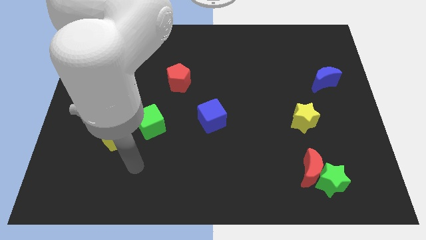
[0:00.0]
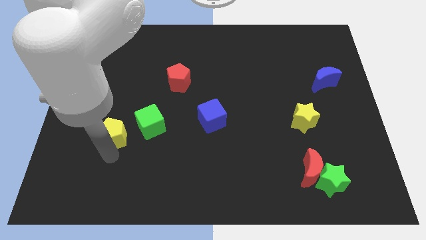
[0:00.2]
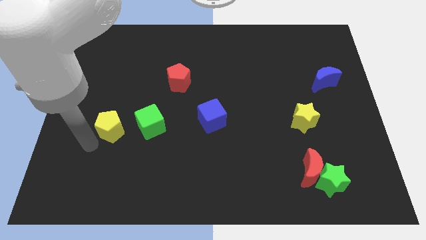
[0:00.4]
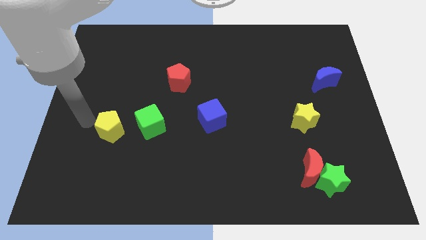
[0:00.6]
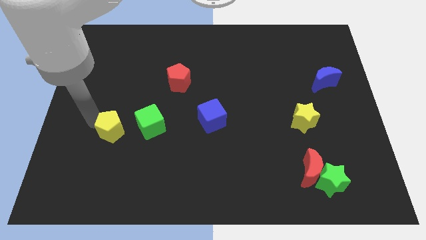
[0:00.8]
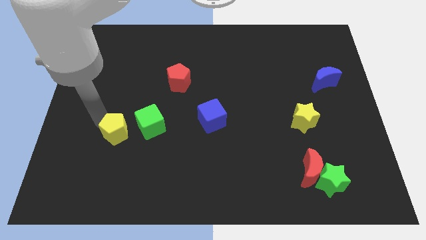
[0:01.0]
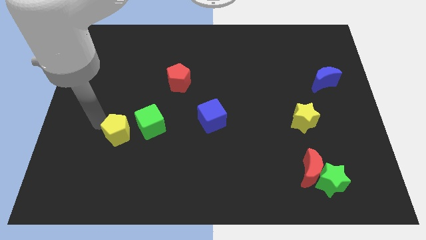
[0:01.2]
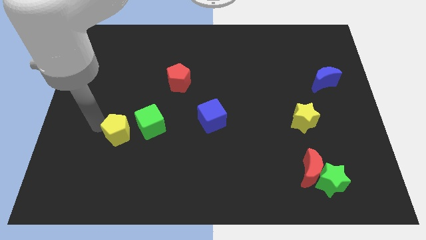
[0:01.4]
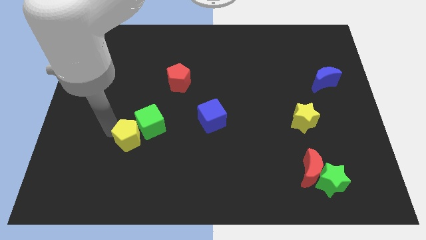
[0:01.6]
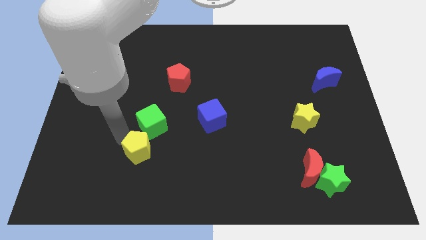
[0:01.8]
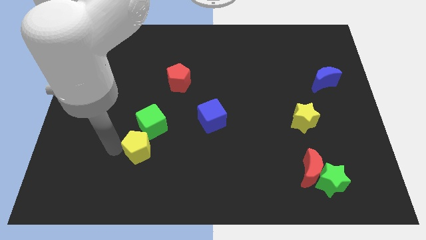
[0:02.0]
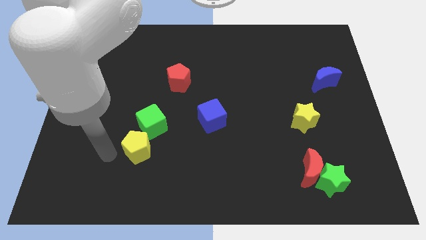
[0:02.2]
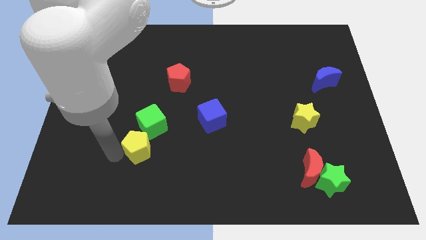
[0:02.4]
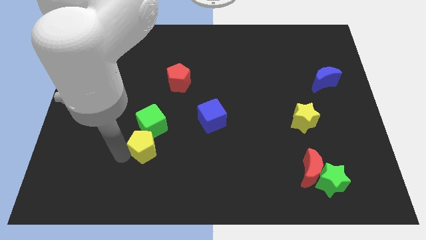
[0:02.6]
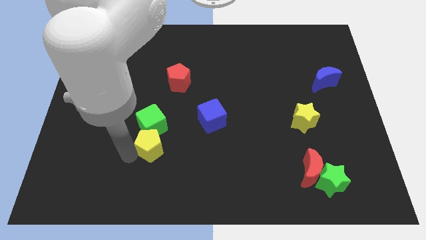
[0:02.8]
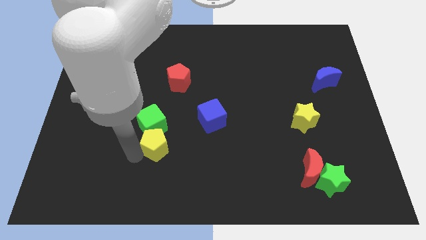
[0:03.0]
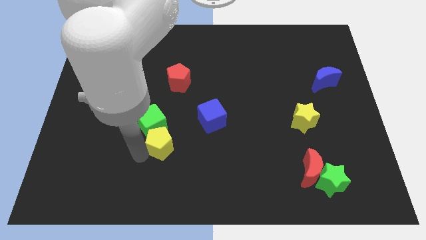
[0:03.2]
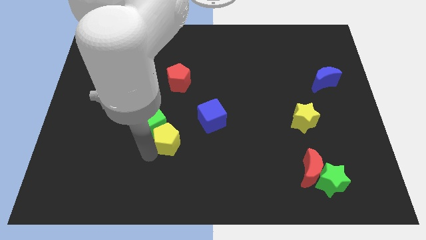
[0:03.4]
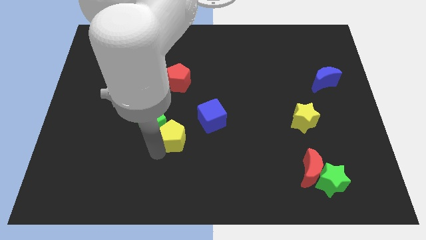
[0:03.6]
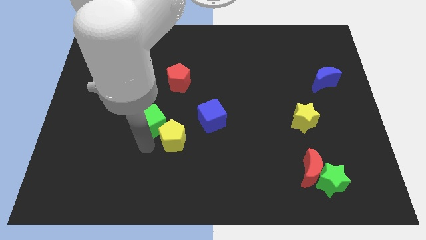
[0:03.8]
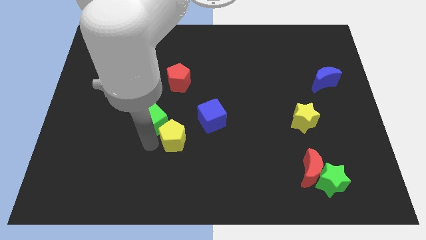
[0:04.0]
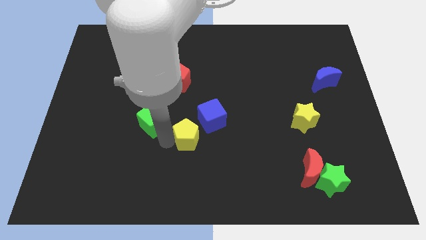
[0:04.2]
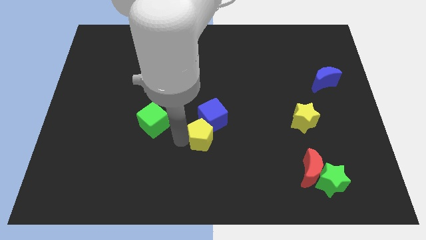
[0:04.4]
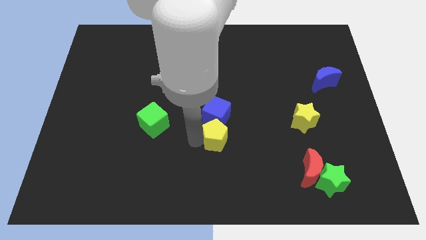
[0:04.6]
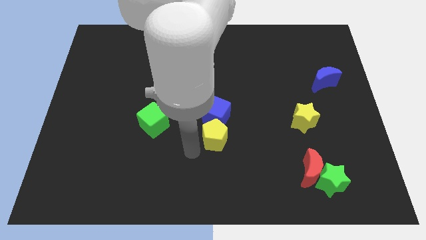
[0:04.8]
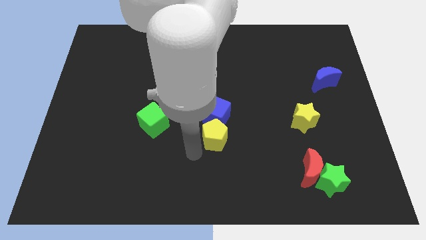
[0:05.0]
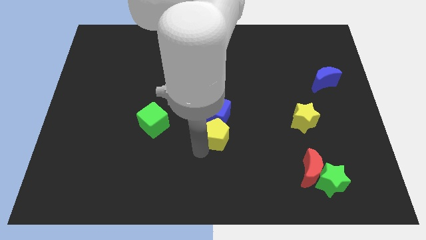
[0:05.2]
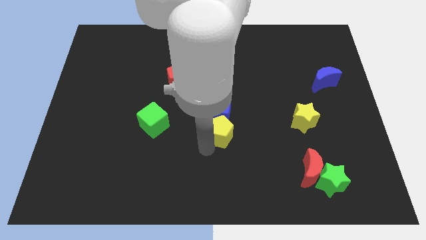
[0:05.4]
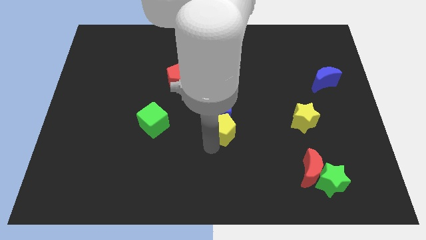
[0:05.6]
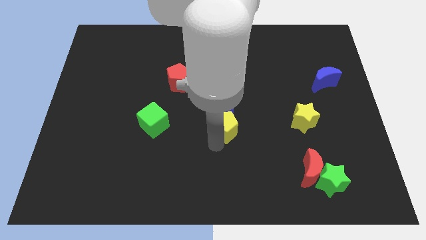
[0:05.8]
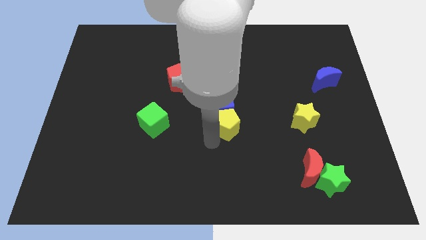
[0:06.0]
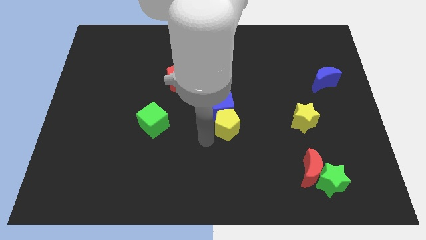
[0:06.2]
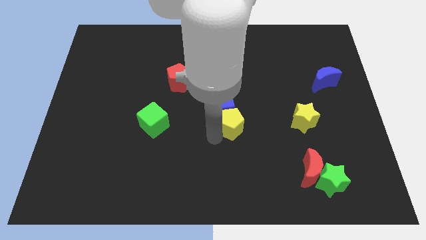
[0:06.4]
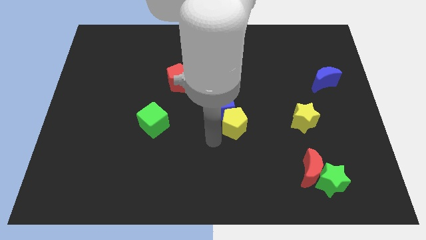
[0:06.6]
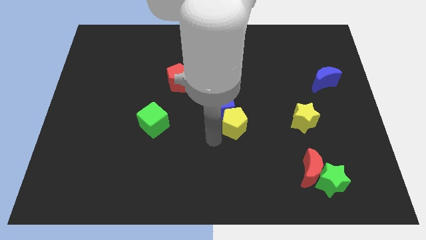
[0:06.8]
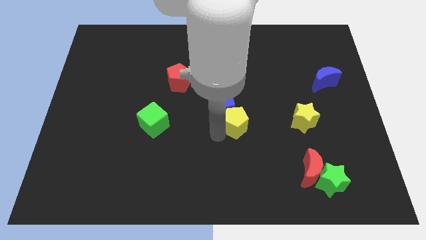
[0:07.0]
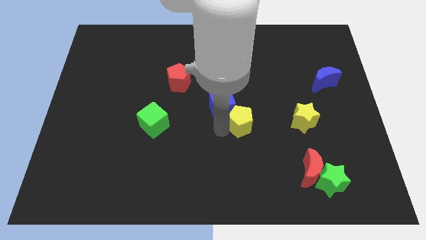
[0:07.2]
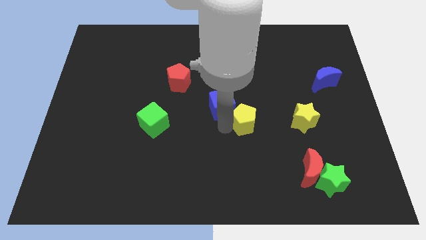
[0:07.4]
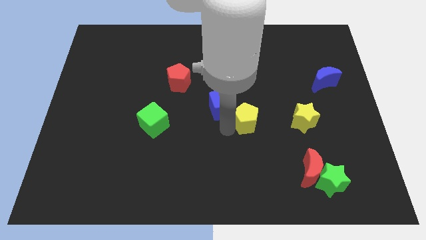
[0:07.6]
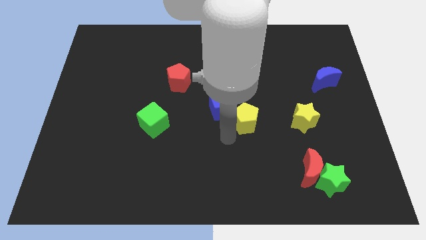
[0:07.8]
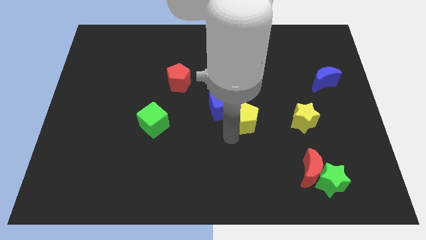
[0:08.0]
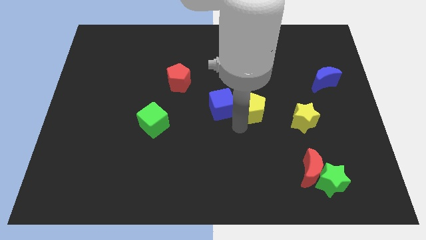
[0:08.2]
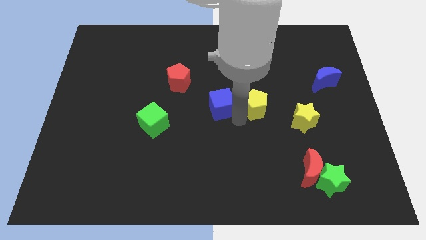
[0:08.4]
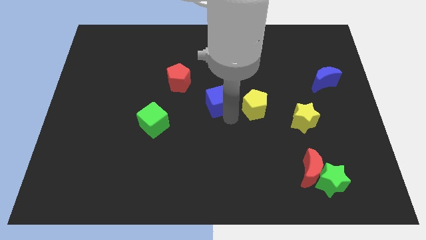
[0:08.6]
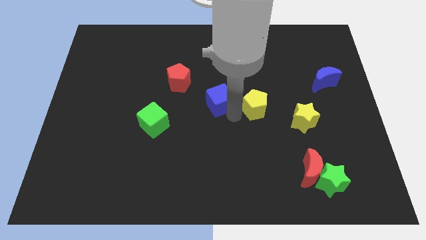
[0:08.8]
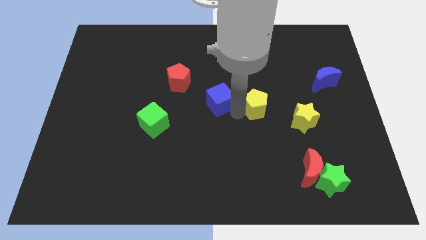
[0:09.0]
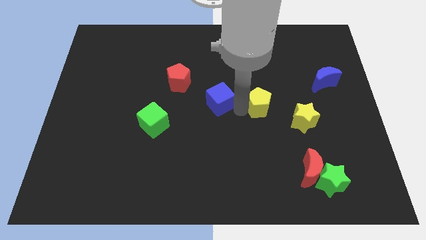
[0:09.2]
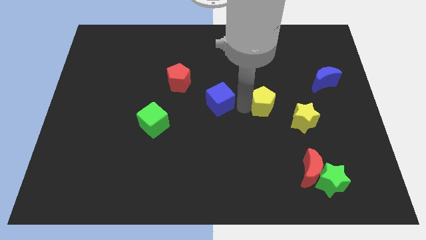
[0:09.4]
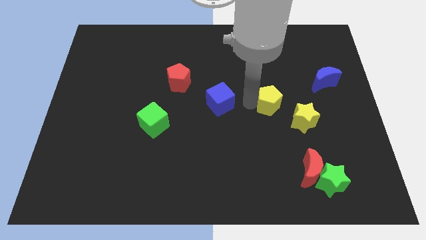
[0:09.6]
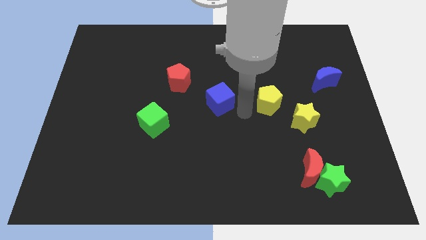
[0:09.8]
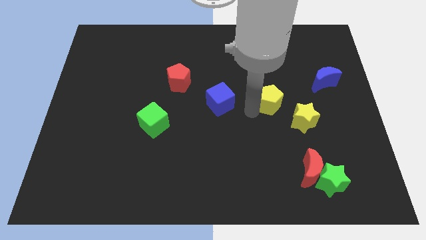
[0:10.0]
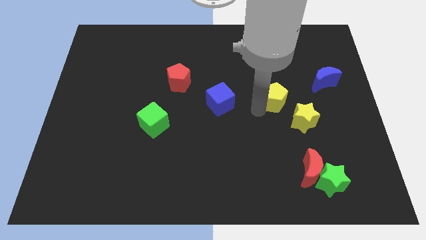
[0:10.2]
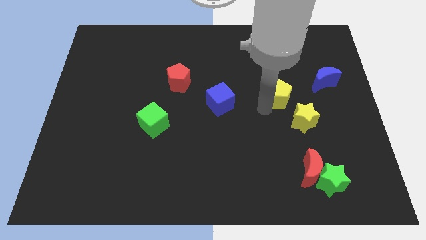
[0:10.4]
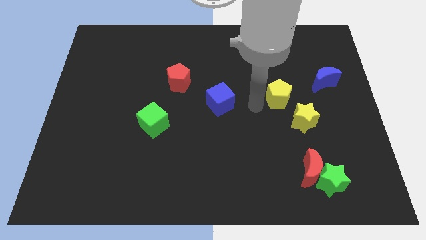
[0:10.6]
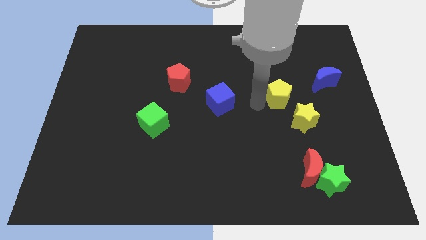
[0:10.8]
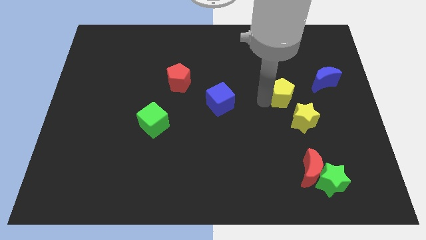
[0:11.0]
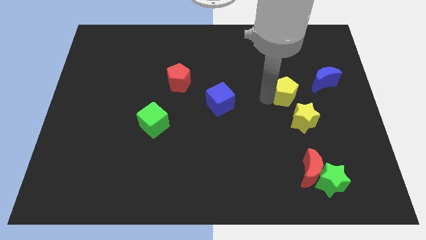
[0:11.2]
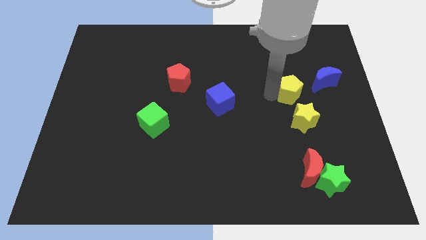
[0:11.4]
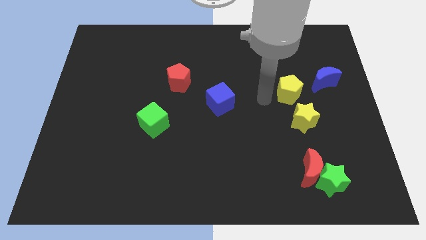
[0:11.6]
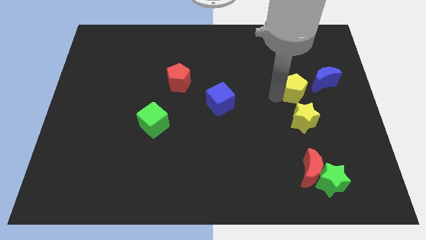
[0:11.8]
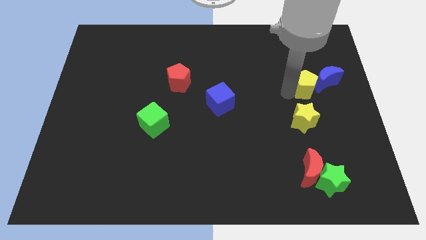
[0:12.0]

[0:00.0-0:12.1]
move the yellow pentagon close to the blue moon

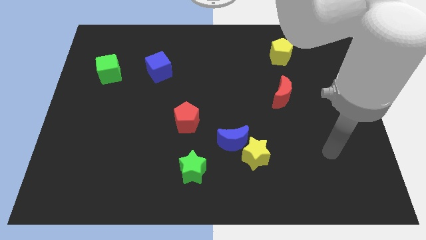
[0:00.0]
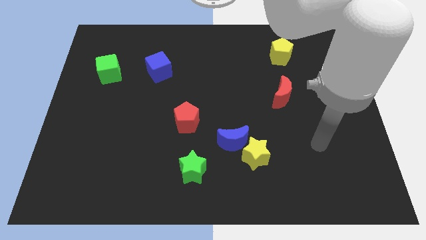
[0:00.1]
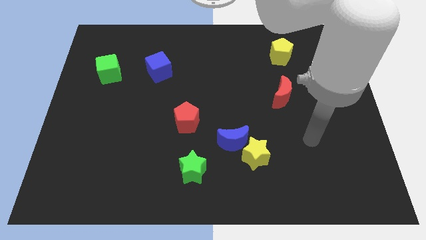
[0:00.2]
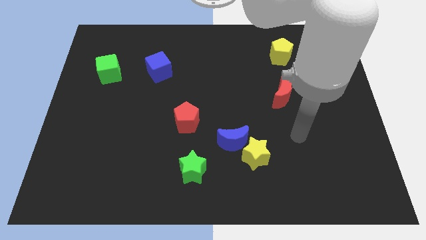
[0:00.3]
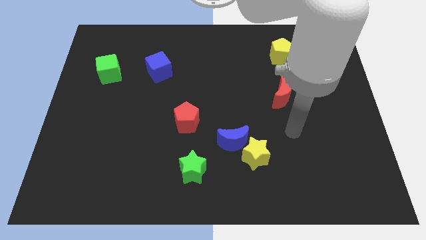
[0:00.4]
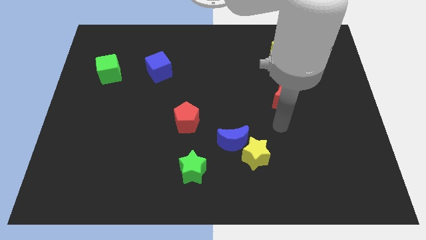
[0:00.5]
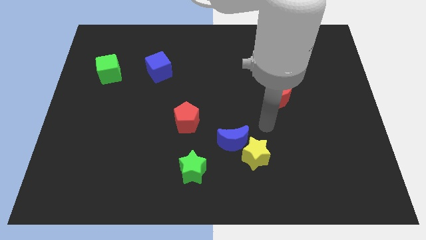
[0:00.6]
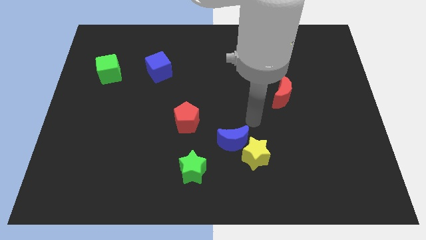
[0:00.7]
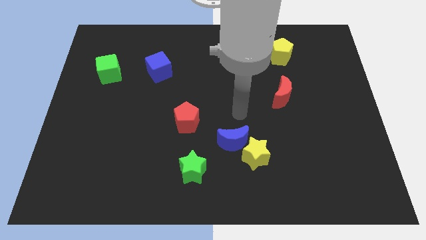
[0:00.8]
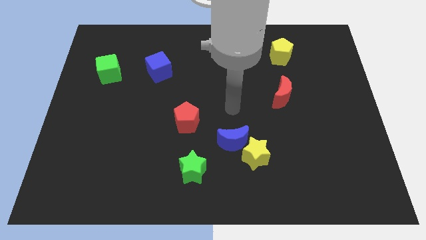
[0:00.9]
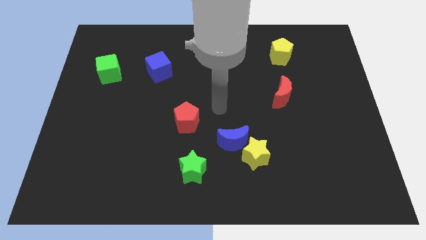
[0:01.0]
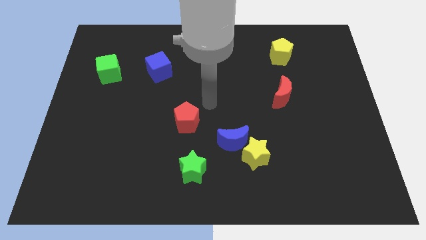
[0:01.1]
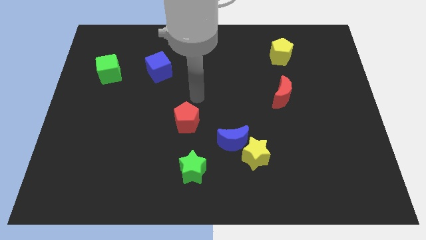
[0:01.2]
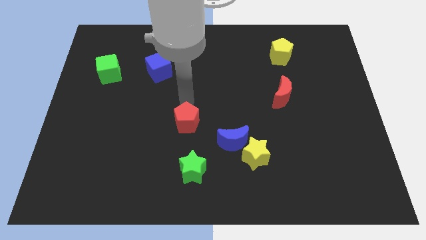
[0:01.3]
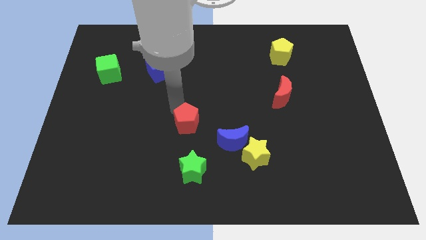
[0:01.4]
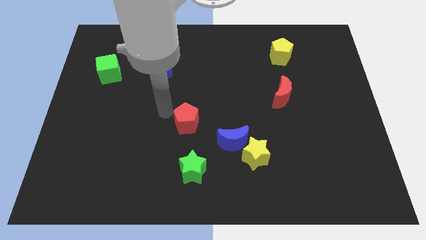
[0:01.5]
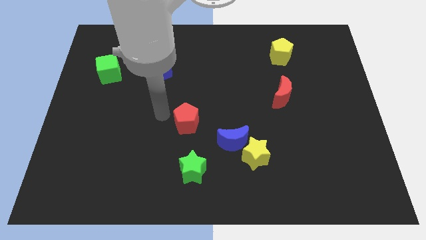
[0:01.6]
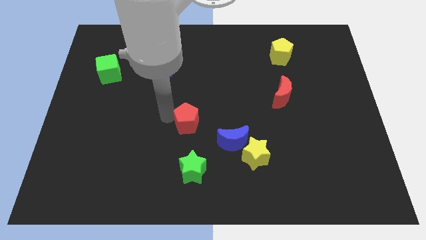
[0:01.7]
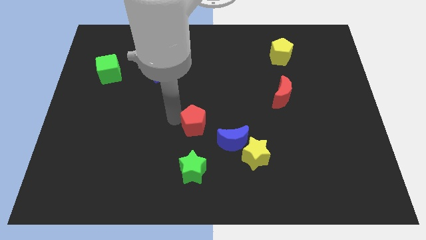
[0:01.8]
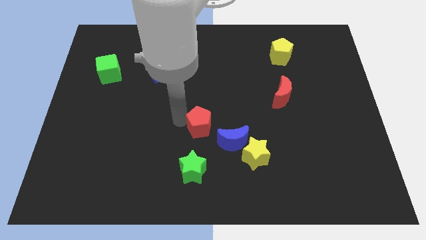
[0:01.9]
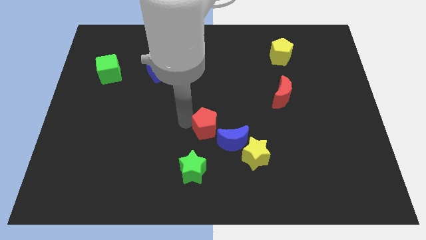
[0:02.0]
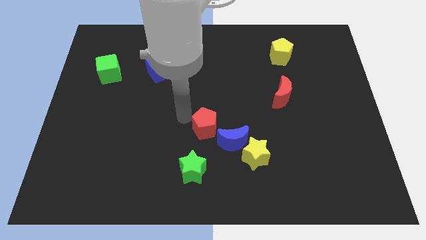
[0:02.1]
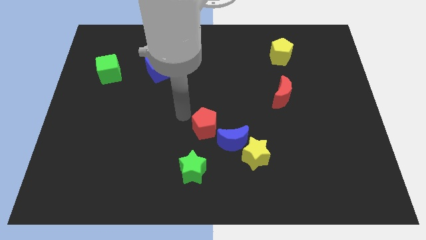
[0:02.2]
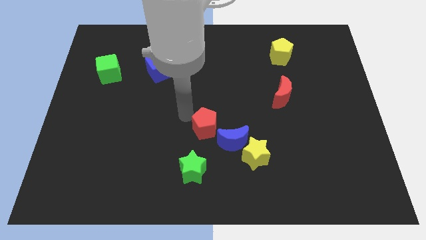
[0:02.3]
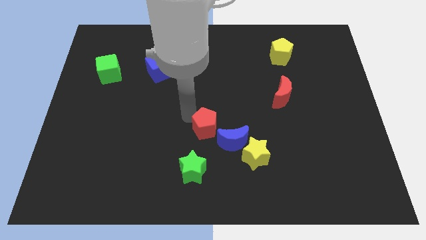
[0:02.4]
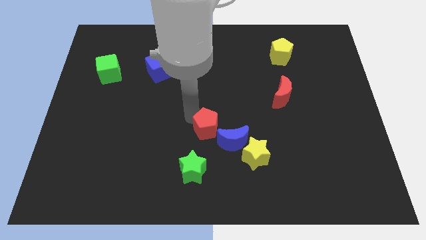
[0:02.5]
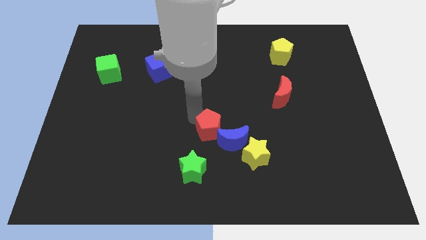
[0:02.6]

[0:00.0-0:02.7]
slide the red pentagon next to the blue moon
